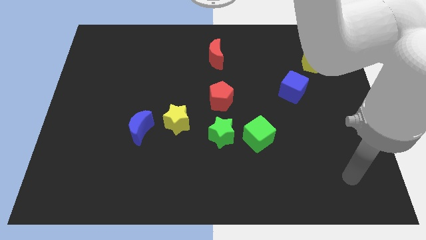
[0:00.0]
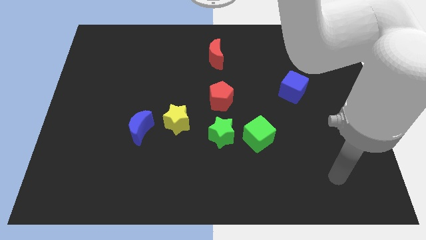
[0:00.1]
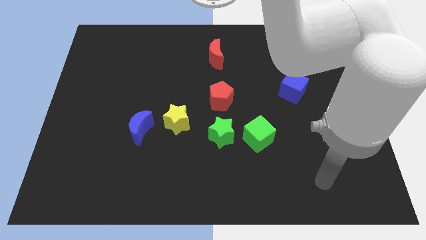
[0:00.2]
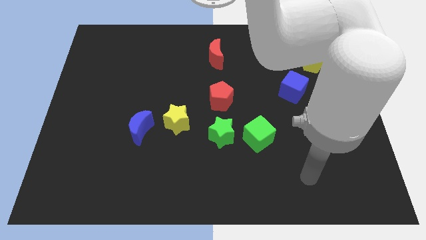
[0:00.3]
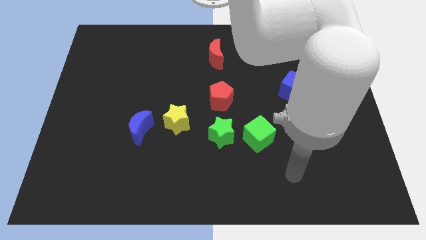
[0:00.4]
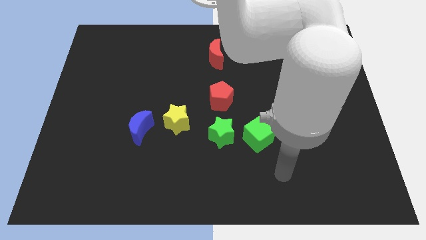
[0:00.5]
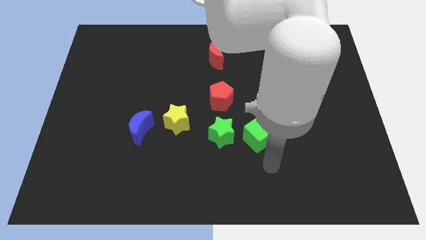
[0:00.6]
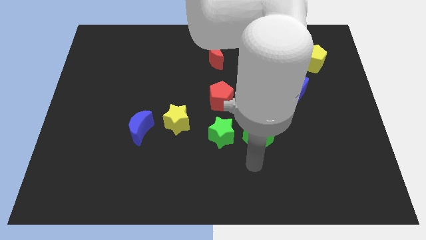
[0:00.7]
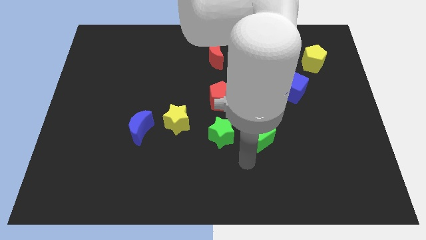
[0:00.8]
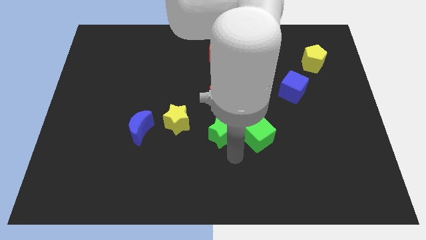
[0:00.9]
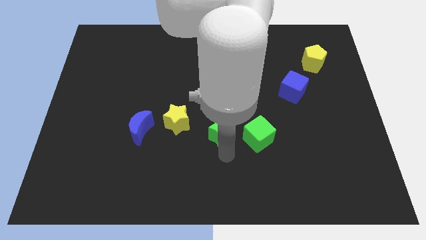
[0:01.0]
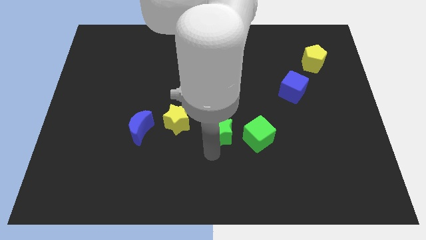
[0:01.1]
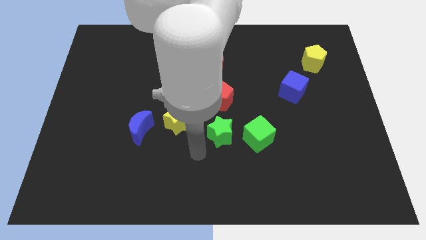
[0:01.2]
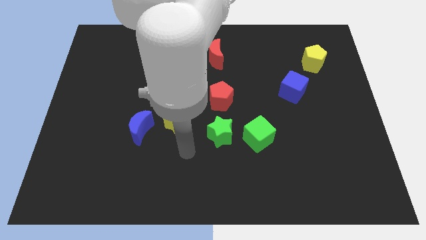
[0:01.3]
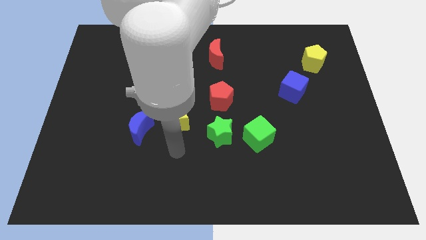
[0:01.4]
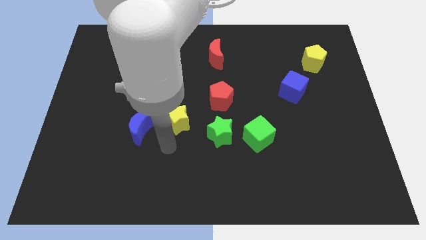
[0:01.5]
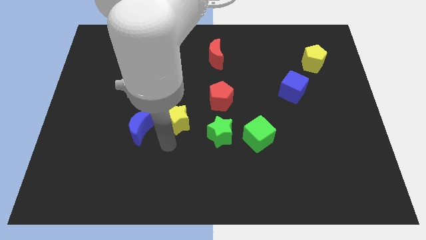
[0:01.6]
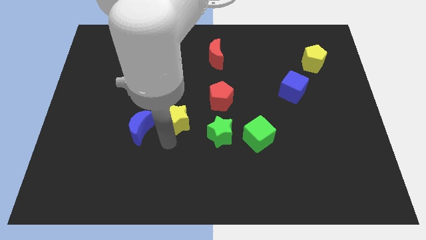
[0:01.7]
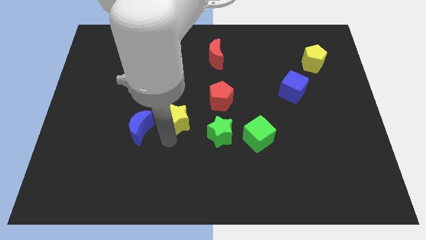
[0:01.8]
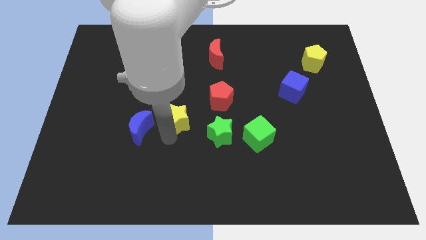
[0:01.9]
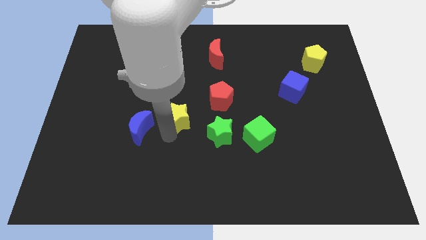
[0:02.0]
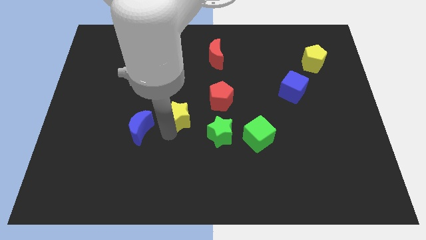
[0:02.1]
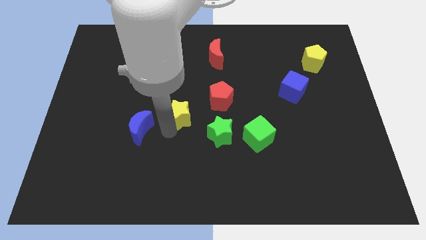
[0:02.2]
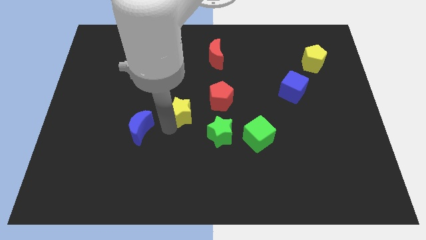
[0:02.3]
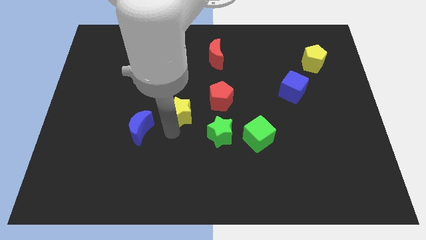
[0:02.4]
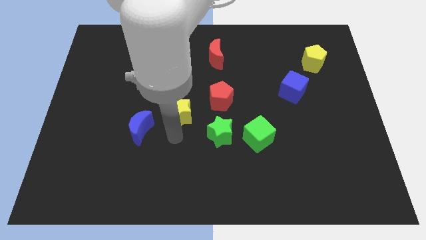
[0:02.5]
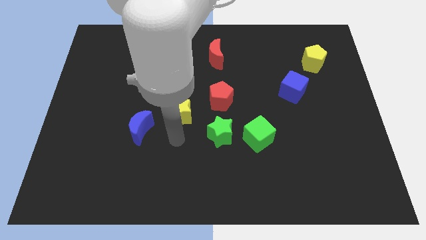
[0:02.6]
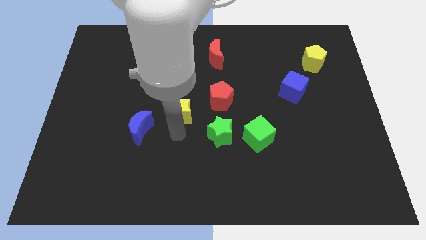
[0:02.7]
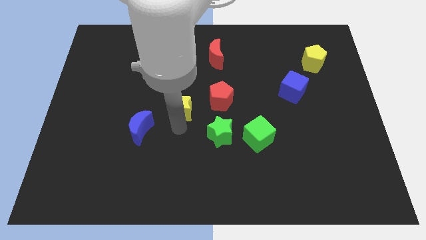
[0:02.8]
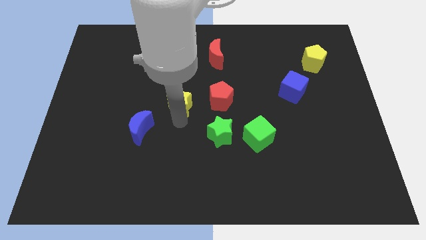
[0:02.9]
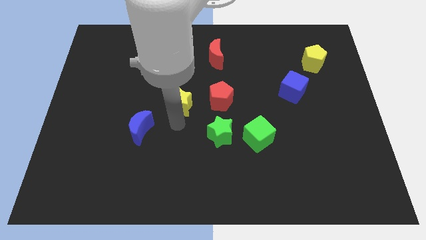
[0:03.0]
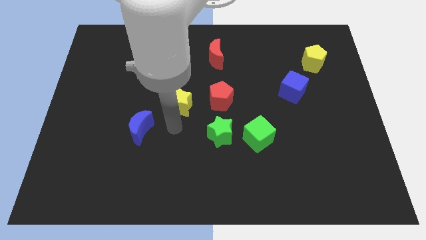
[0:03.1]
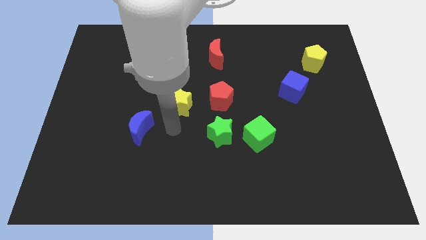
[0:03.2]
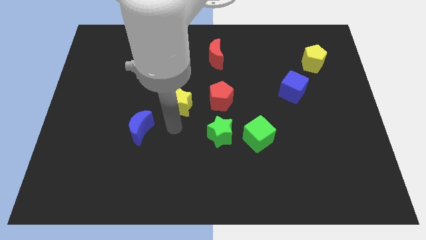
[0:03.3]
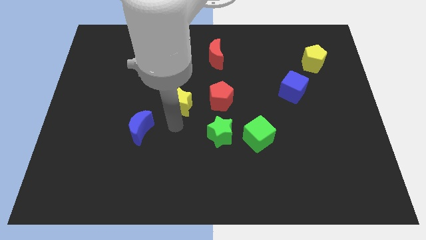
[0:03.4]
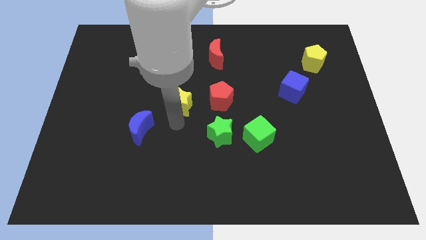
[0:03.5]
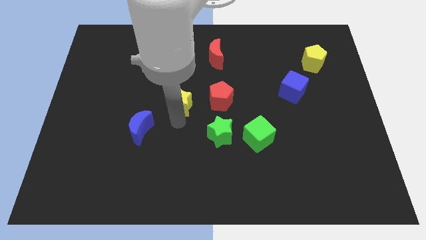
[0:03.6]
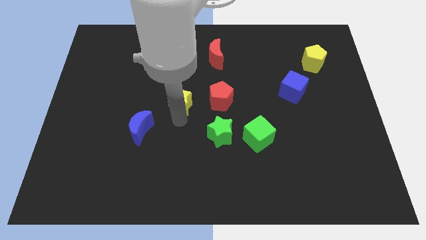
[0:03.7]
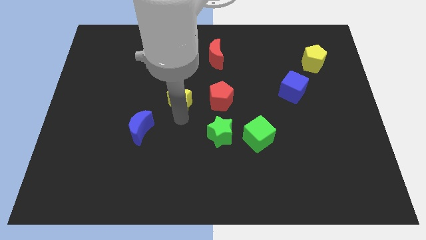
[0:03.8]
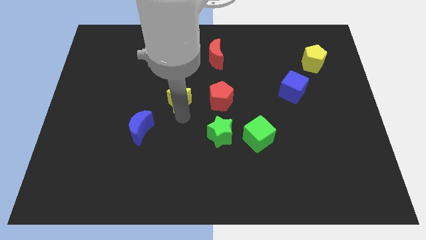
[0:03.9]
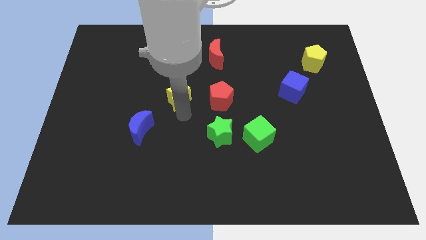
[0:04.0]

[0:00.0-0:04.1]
slightly move the yellow star upwards

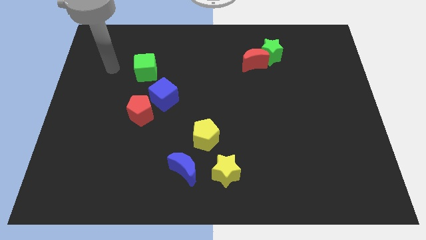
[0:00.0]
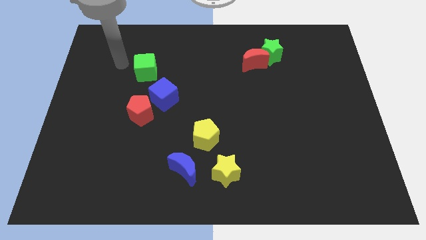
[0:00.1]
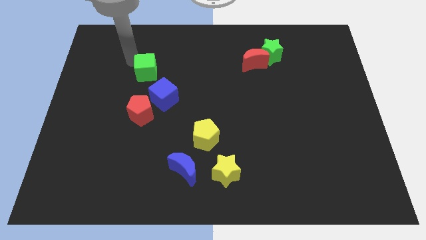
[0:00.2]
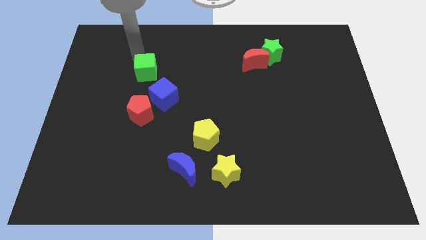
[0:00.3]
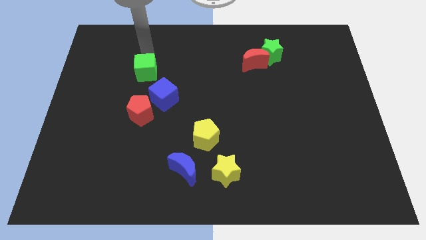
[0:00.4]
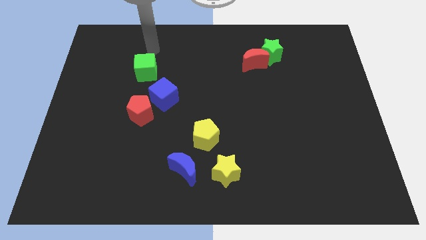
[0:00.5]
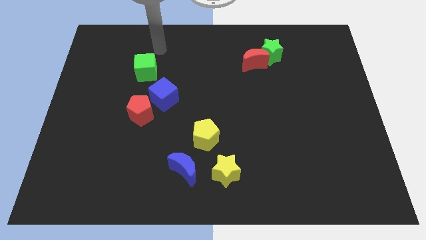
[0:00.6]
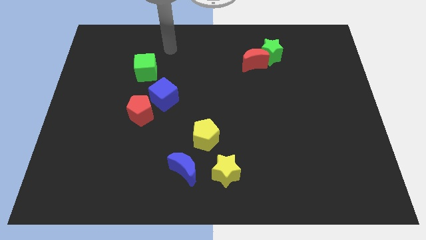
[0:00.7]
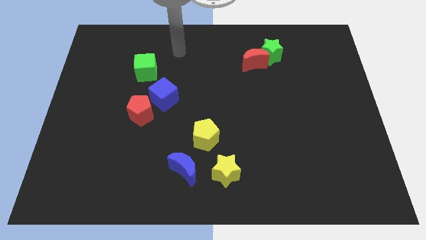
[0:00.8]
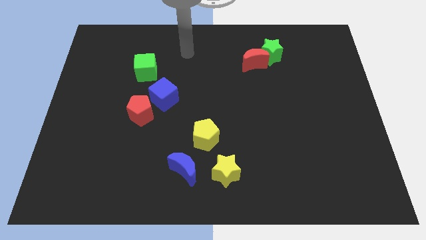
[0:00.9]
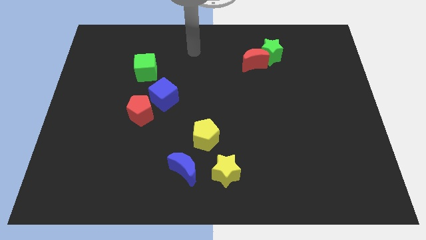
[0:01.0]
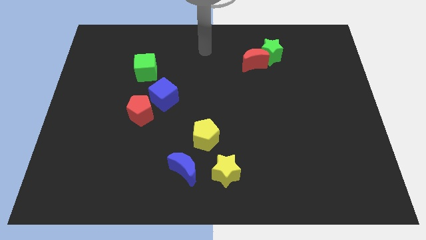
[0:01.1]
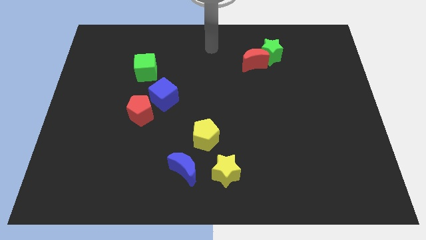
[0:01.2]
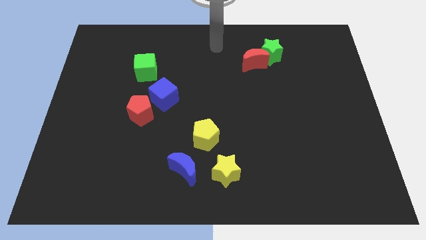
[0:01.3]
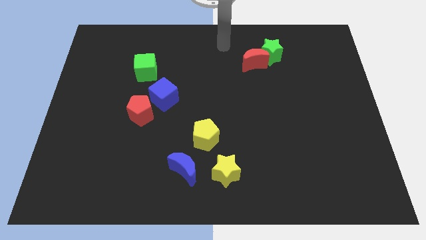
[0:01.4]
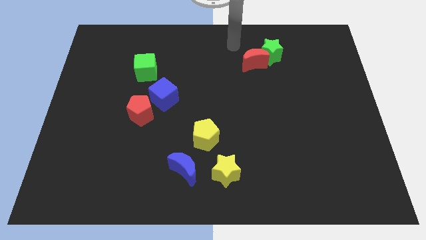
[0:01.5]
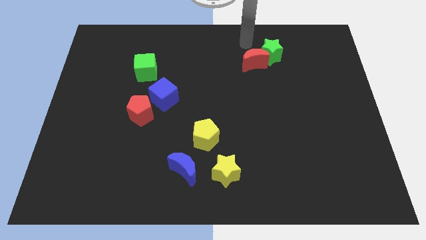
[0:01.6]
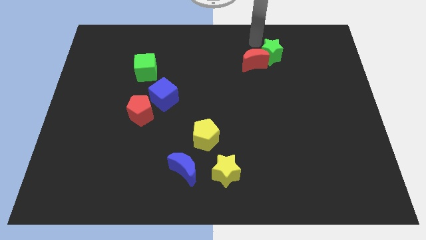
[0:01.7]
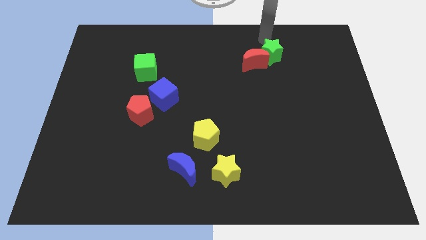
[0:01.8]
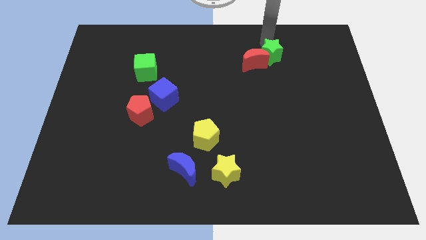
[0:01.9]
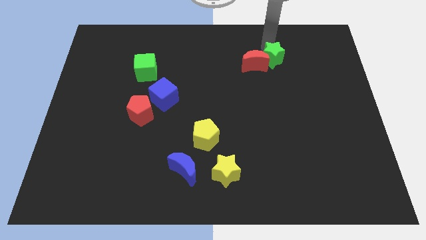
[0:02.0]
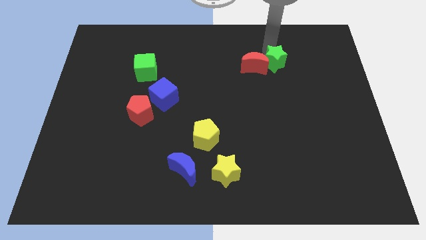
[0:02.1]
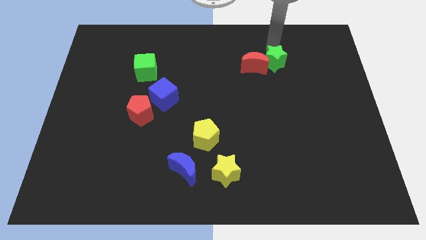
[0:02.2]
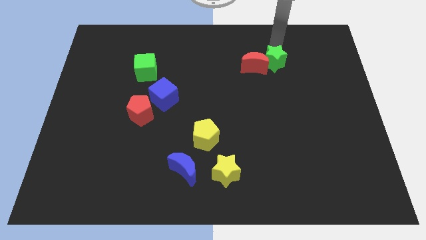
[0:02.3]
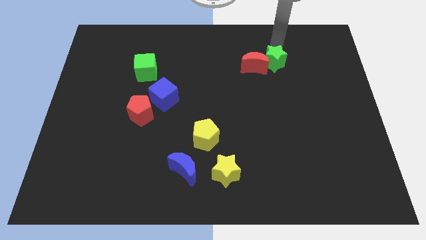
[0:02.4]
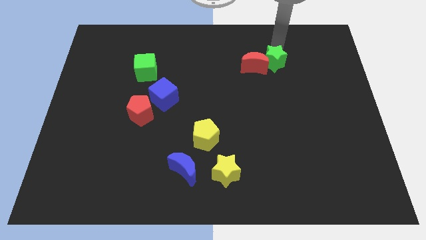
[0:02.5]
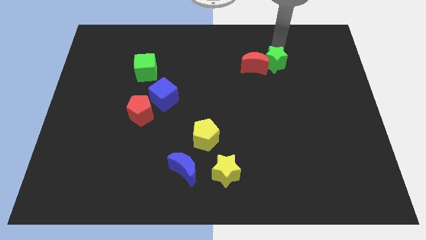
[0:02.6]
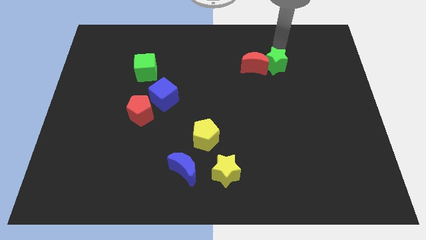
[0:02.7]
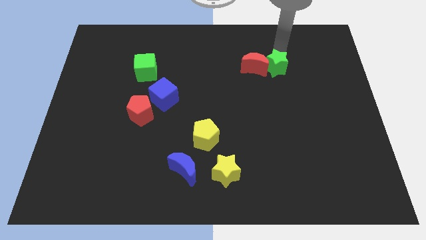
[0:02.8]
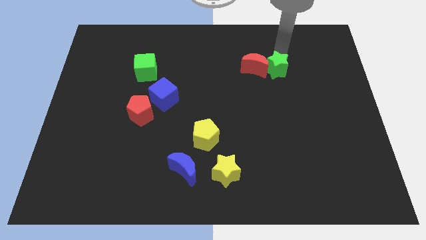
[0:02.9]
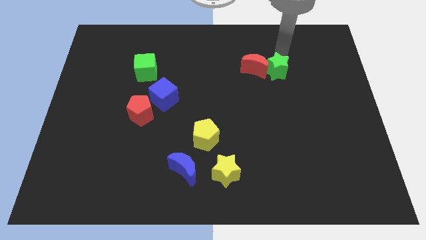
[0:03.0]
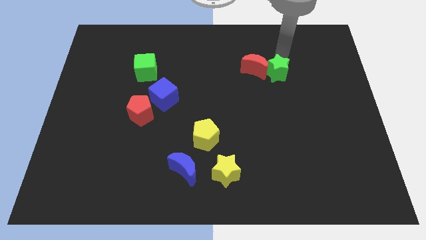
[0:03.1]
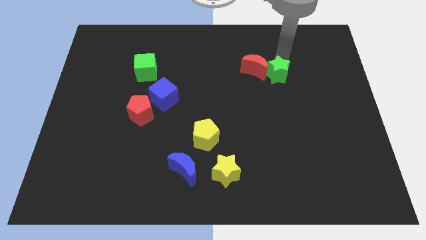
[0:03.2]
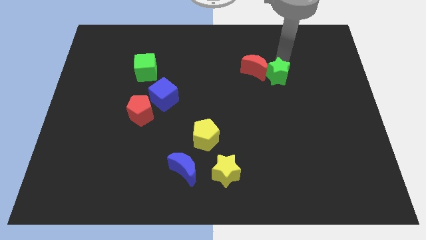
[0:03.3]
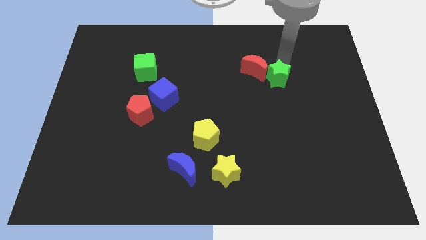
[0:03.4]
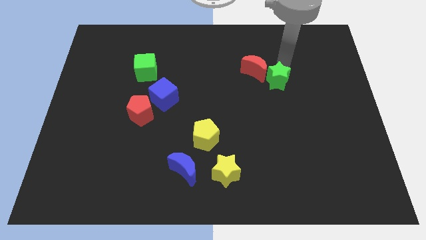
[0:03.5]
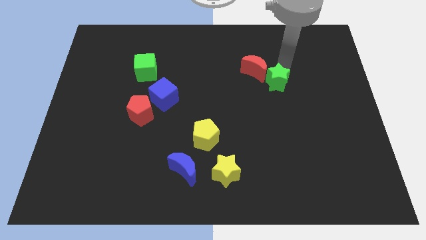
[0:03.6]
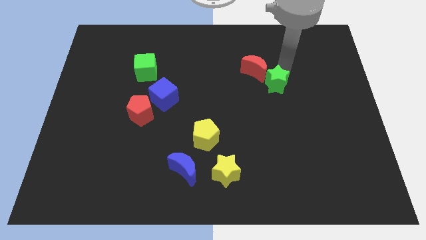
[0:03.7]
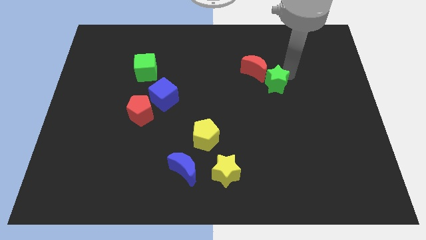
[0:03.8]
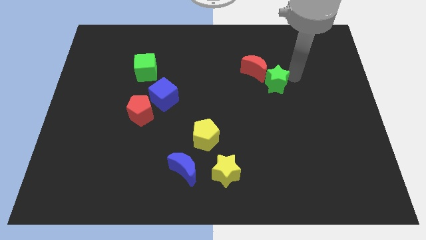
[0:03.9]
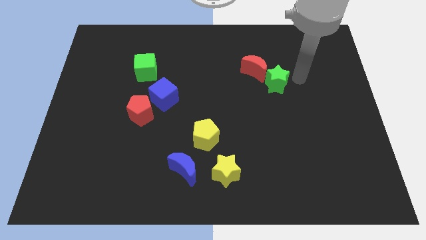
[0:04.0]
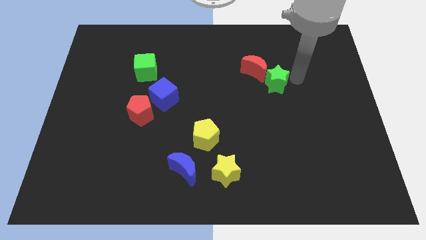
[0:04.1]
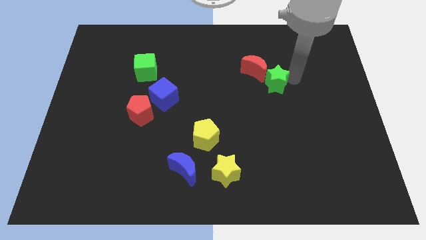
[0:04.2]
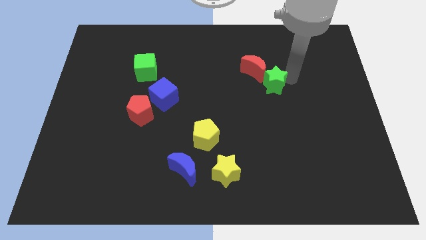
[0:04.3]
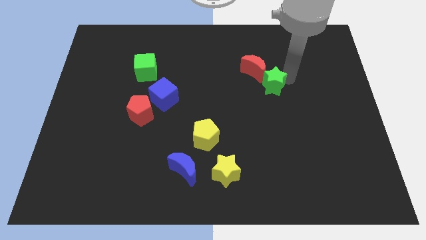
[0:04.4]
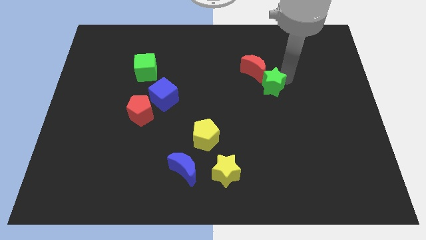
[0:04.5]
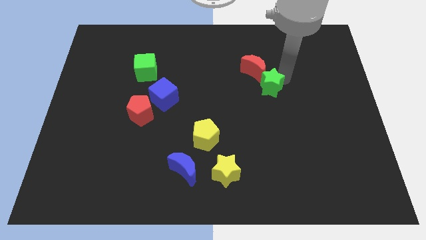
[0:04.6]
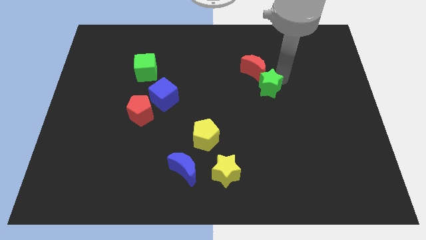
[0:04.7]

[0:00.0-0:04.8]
slide the green star a little diagonally downwards and left
